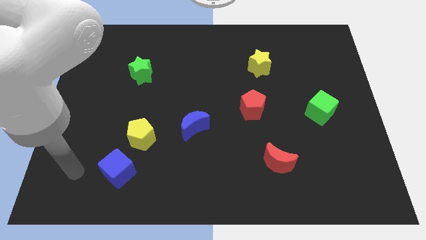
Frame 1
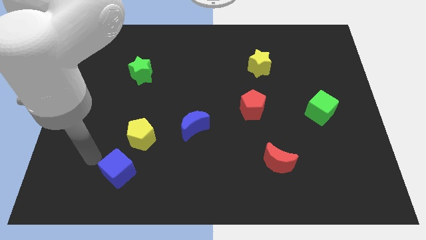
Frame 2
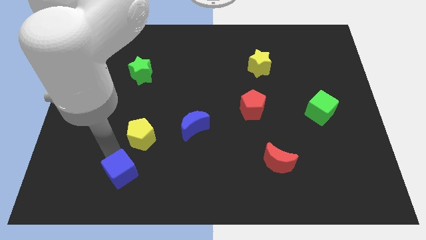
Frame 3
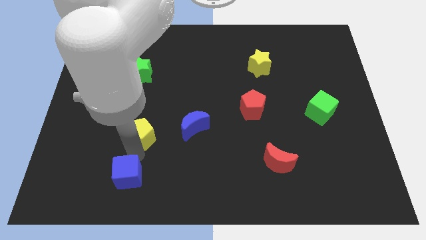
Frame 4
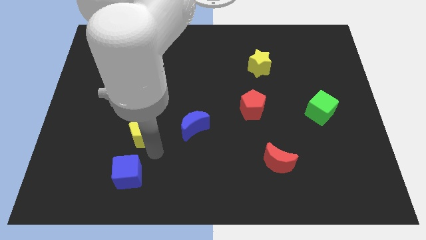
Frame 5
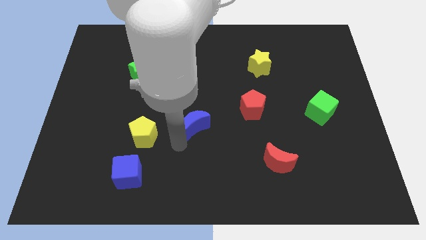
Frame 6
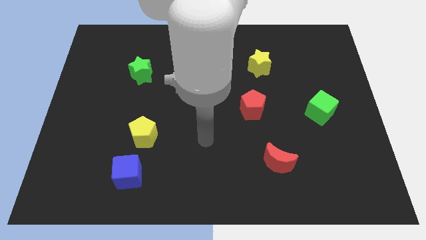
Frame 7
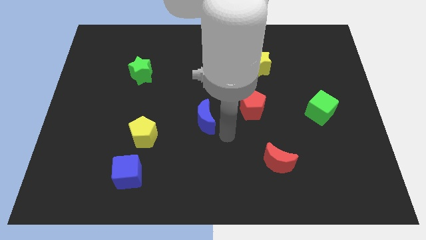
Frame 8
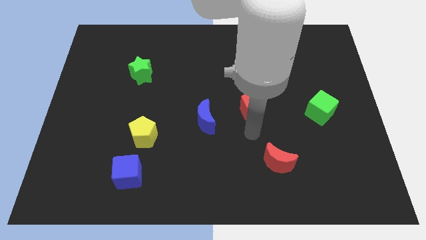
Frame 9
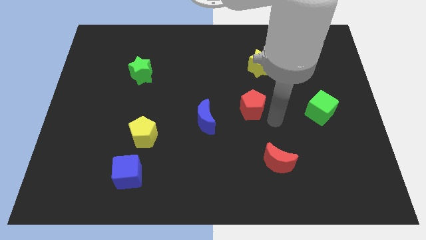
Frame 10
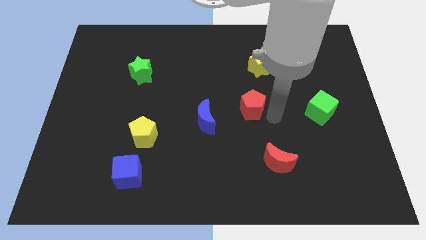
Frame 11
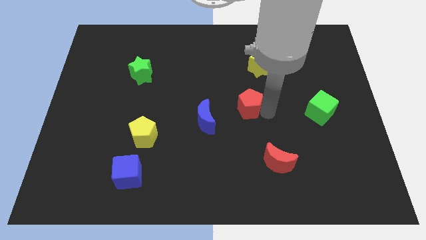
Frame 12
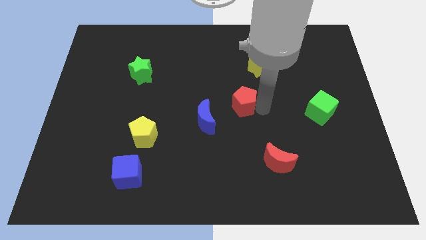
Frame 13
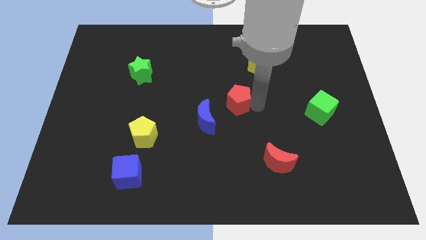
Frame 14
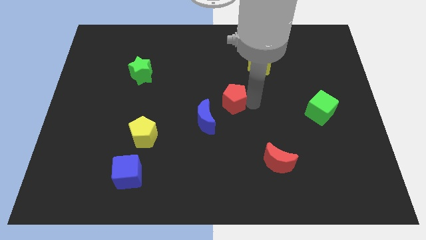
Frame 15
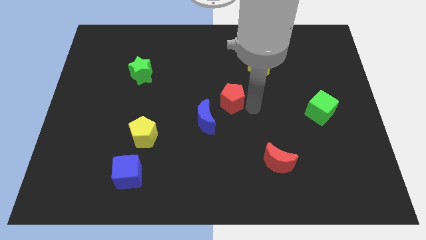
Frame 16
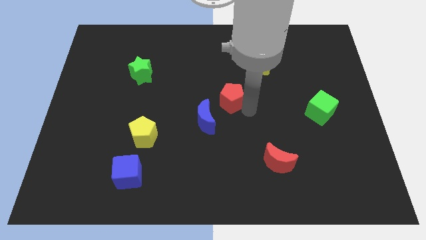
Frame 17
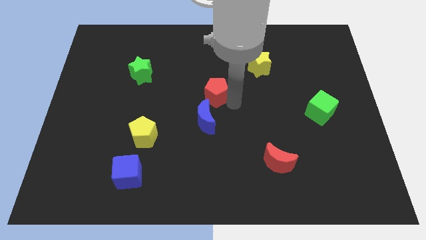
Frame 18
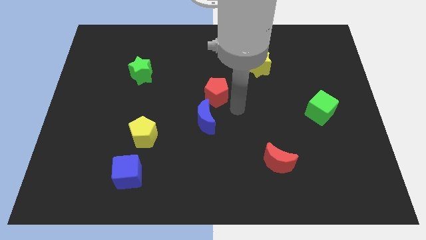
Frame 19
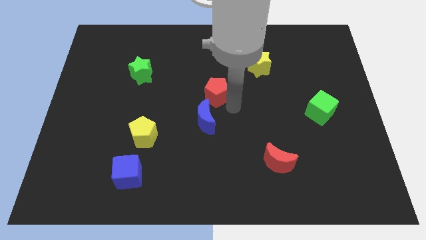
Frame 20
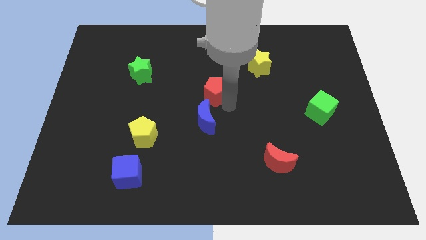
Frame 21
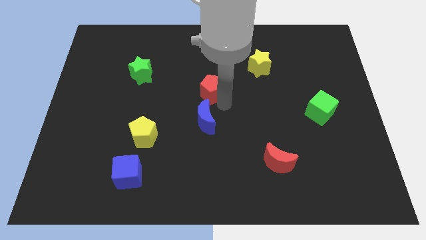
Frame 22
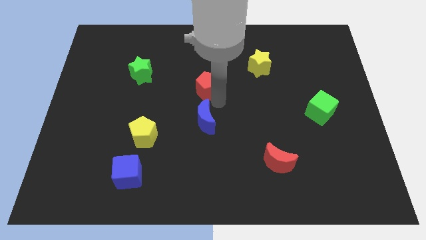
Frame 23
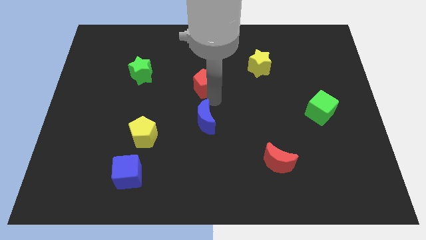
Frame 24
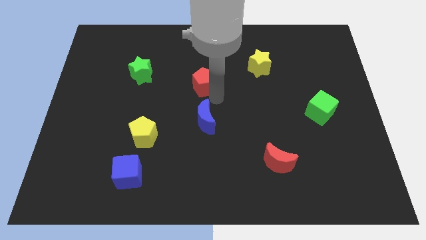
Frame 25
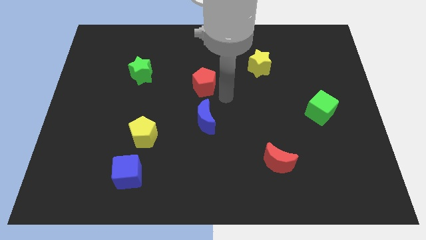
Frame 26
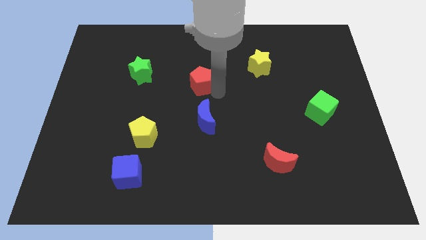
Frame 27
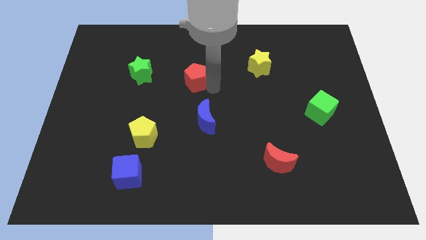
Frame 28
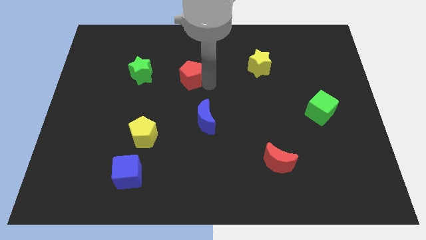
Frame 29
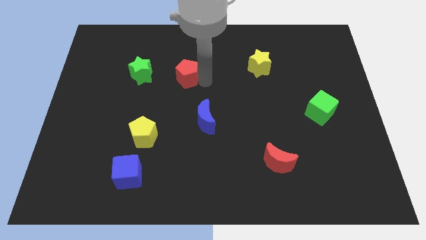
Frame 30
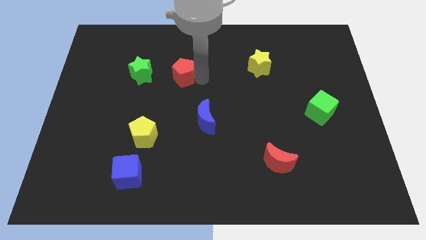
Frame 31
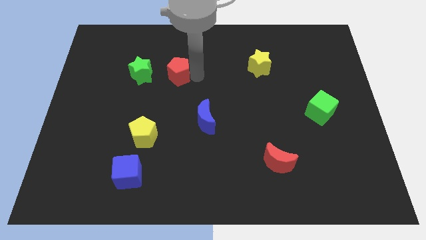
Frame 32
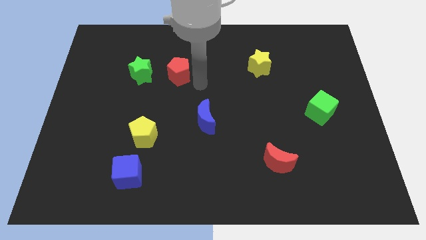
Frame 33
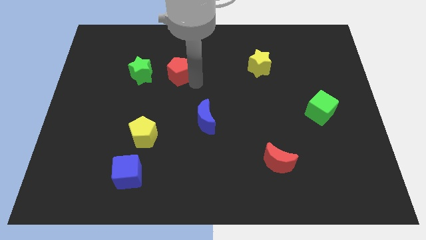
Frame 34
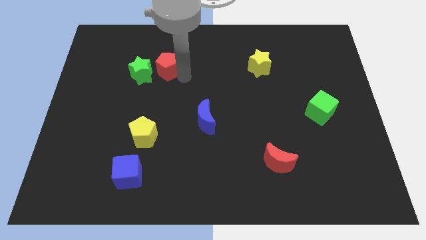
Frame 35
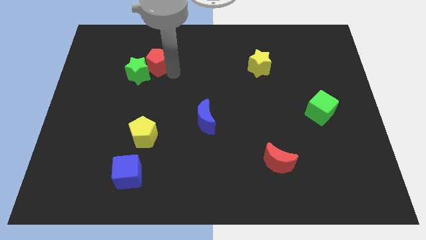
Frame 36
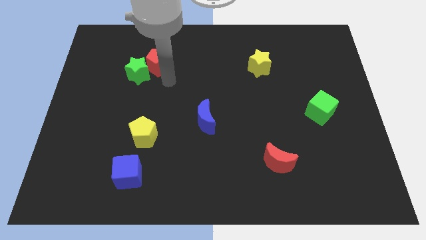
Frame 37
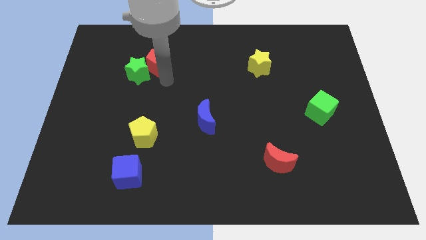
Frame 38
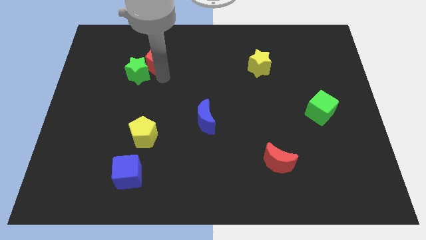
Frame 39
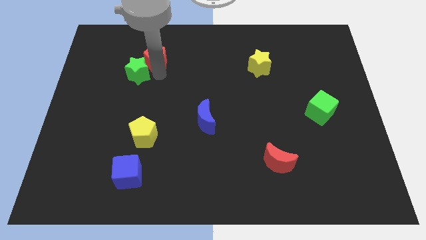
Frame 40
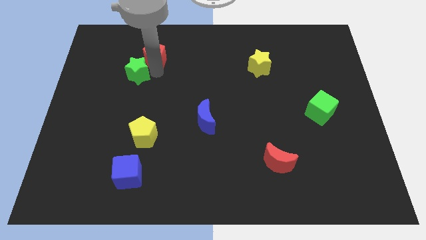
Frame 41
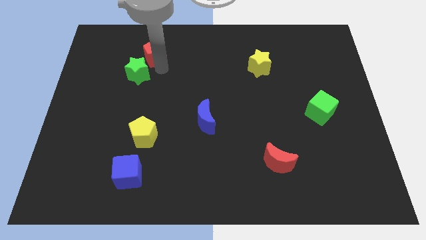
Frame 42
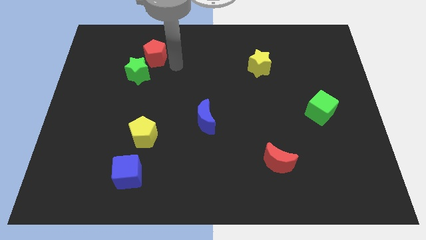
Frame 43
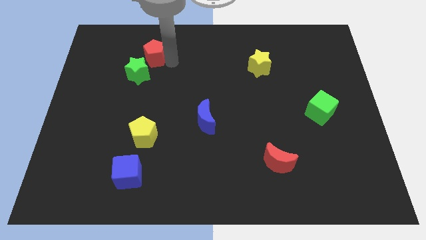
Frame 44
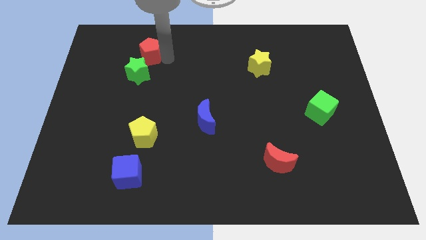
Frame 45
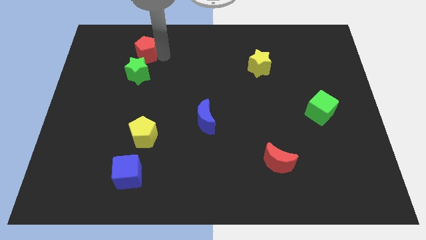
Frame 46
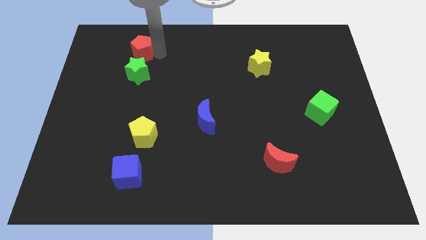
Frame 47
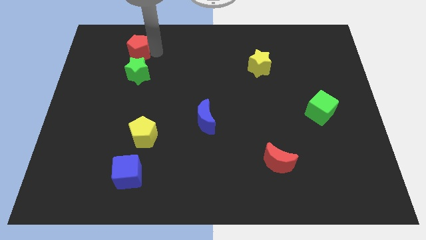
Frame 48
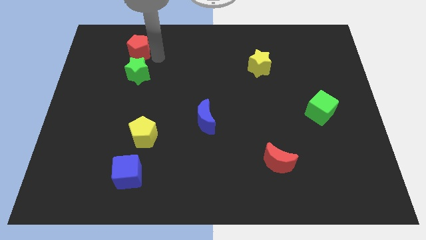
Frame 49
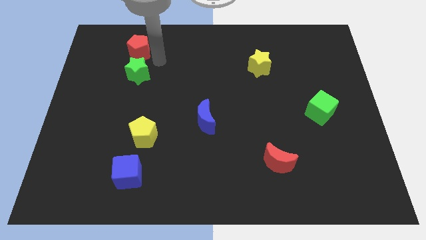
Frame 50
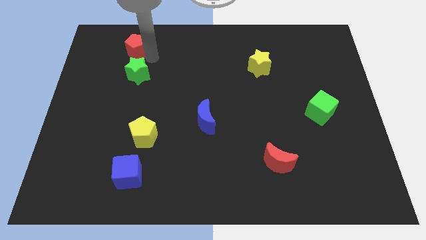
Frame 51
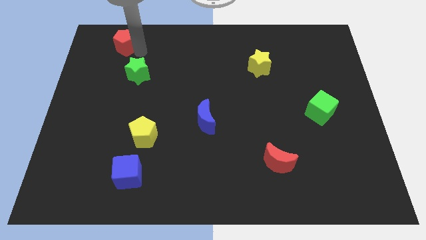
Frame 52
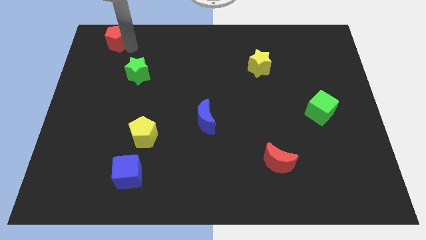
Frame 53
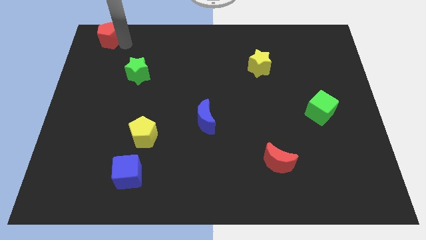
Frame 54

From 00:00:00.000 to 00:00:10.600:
slide the red pentagon to the upper left corner

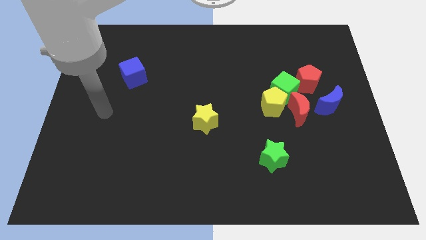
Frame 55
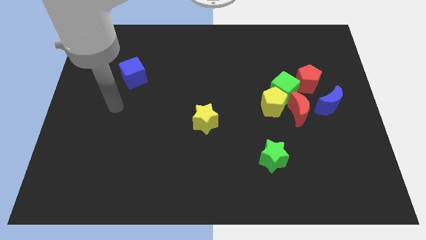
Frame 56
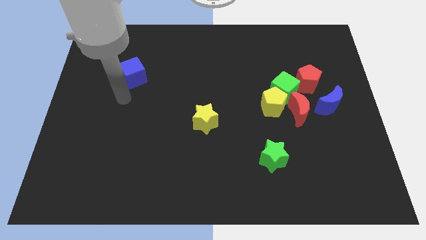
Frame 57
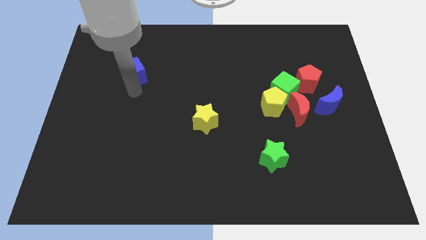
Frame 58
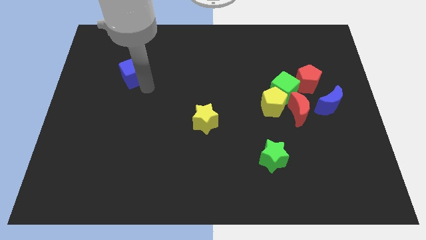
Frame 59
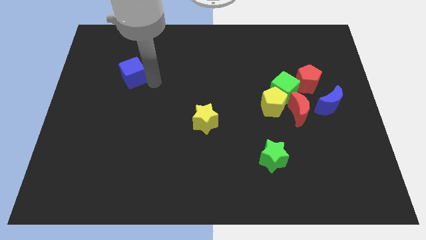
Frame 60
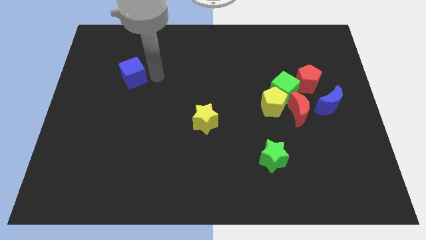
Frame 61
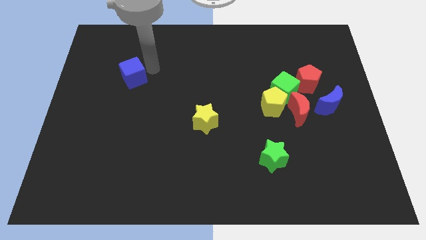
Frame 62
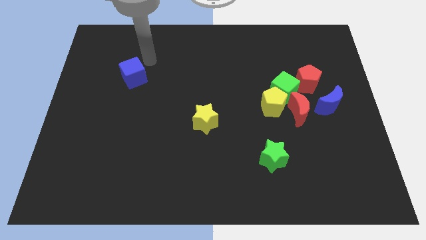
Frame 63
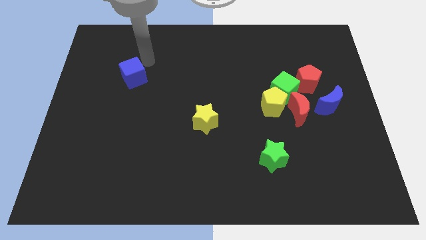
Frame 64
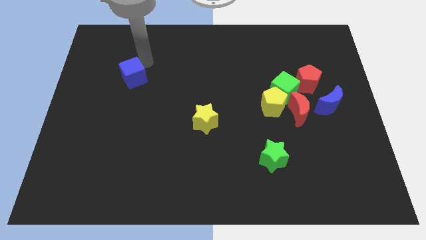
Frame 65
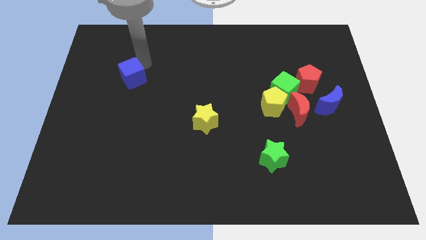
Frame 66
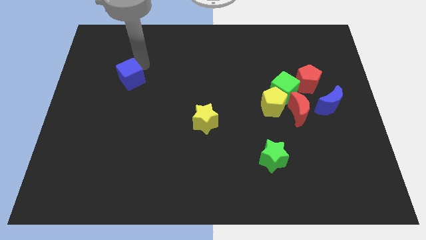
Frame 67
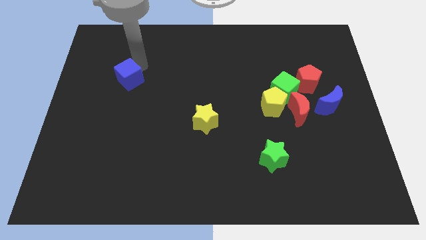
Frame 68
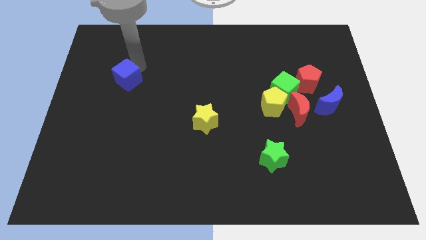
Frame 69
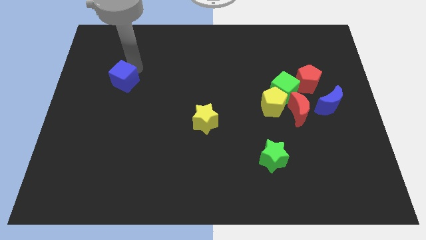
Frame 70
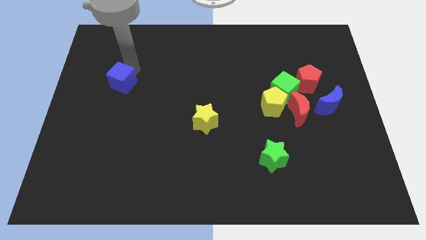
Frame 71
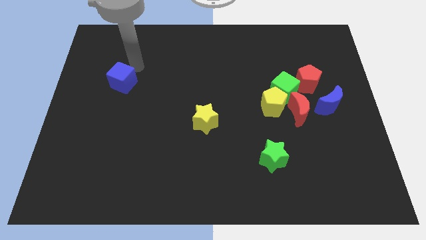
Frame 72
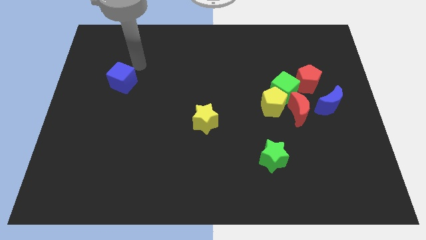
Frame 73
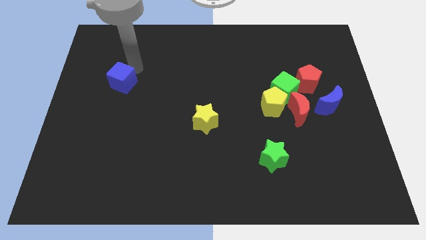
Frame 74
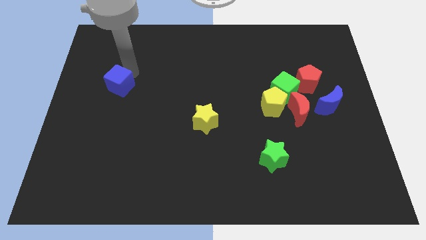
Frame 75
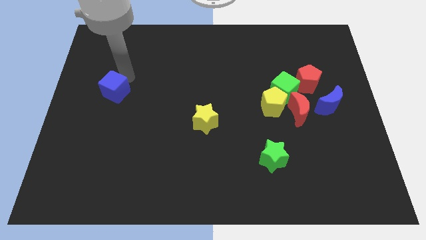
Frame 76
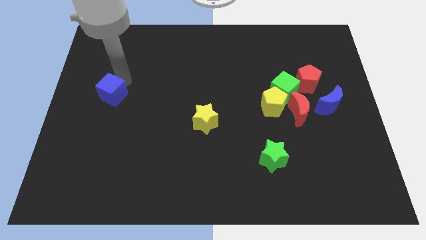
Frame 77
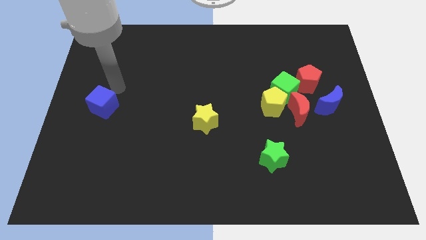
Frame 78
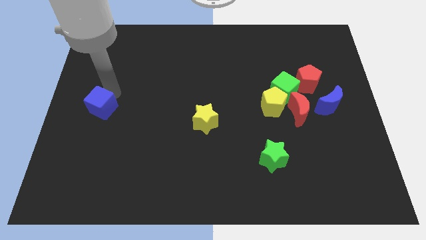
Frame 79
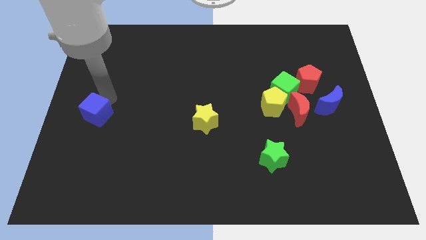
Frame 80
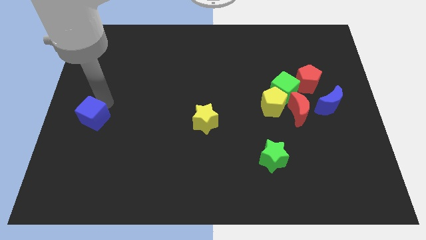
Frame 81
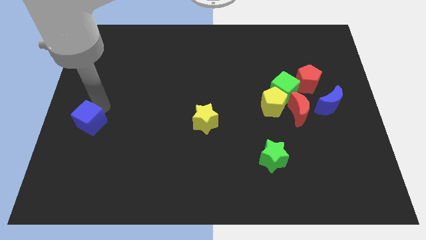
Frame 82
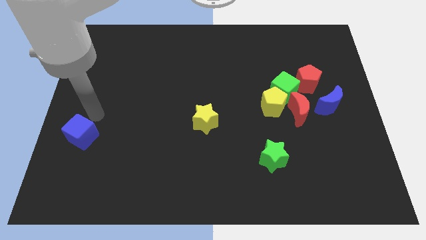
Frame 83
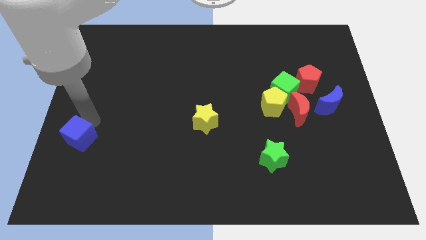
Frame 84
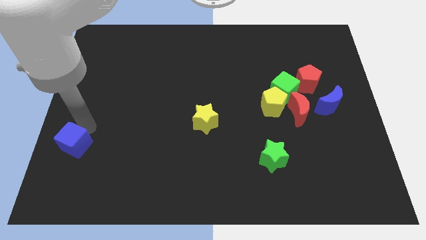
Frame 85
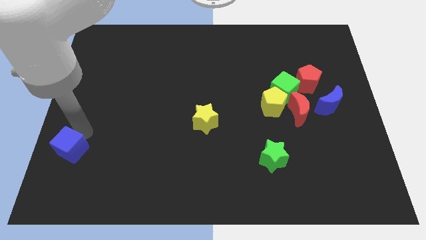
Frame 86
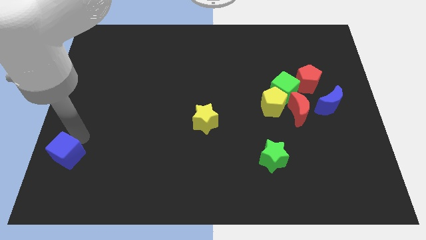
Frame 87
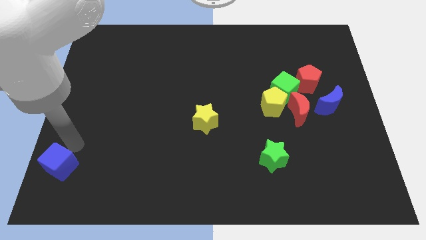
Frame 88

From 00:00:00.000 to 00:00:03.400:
move the blue cube to the bottom left corner
